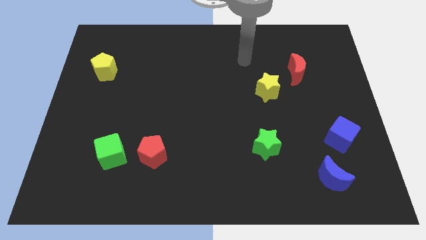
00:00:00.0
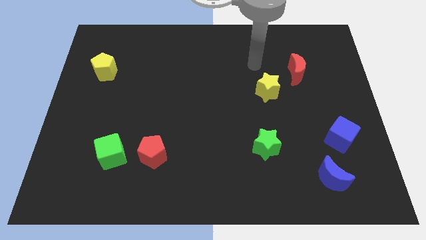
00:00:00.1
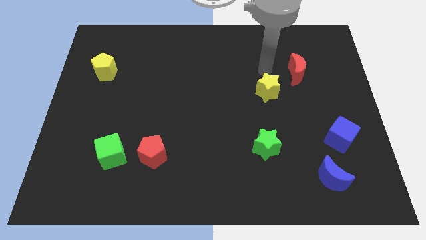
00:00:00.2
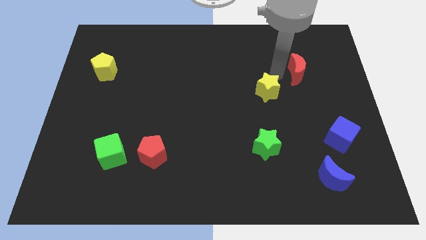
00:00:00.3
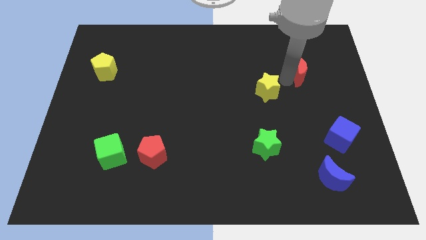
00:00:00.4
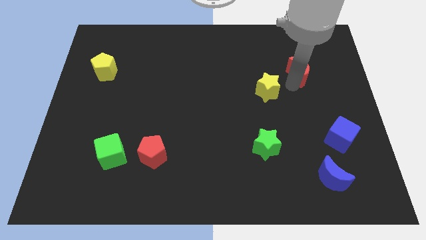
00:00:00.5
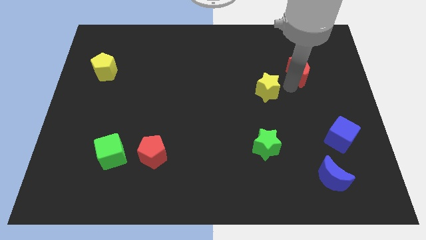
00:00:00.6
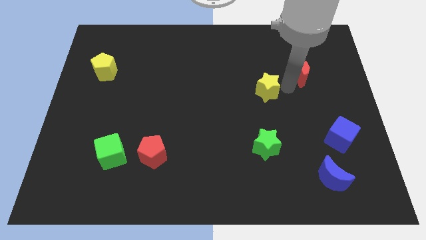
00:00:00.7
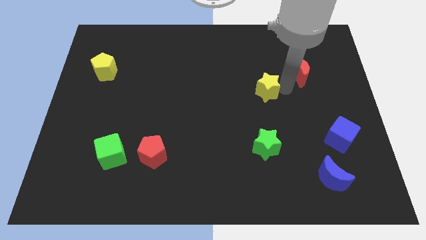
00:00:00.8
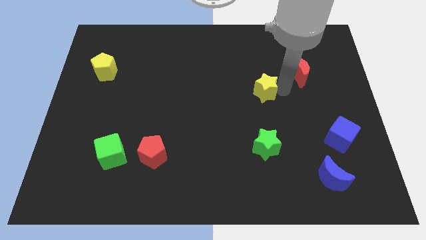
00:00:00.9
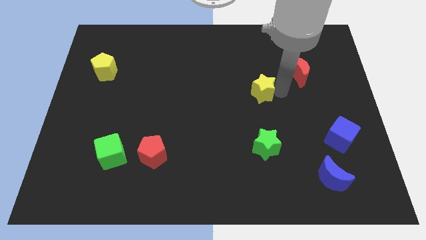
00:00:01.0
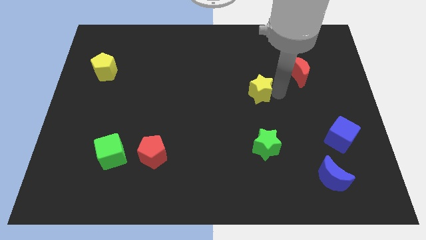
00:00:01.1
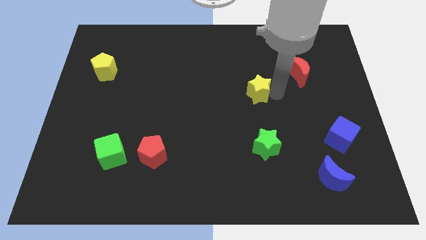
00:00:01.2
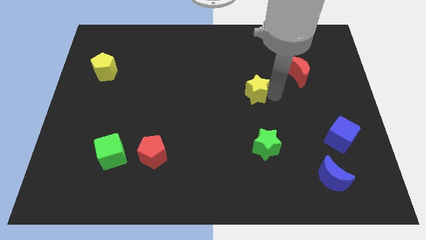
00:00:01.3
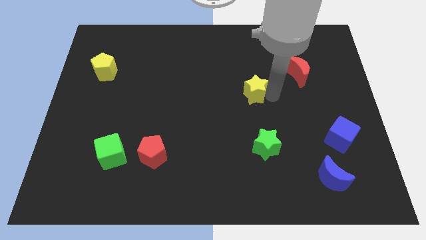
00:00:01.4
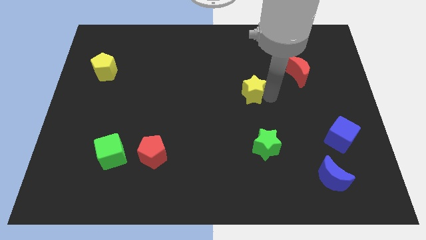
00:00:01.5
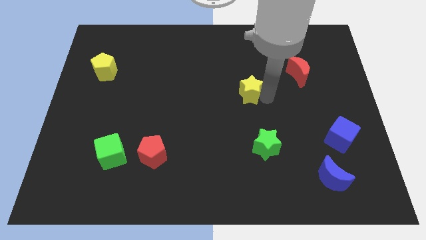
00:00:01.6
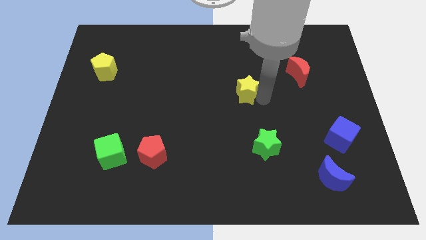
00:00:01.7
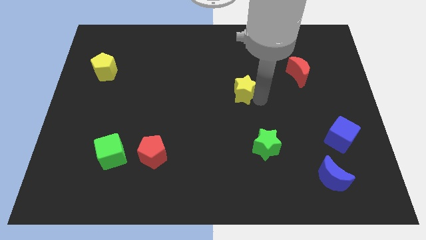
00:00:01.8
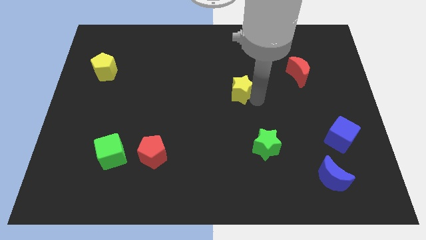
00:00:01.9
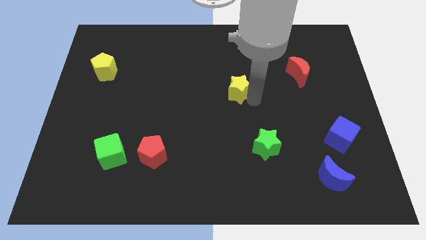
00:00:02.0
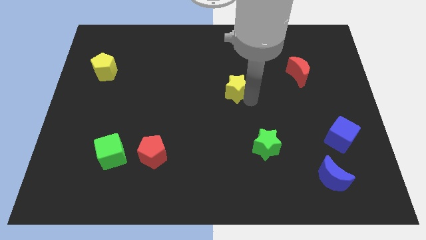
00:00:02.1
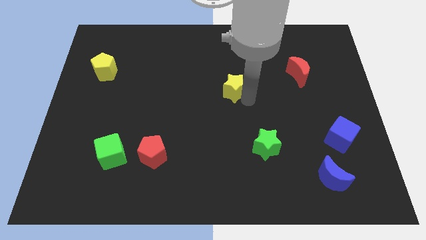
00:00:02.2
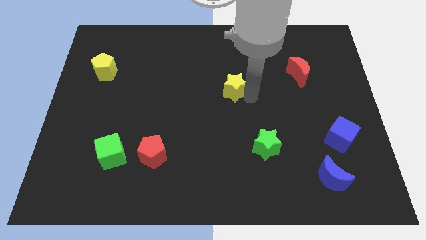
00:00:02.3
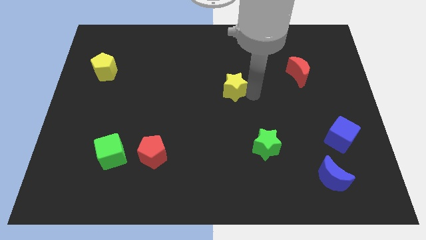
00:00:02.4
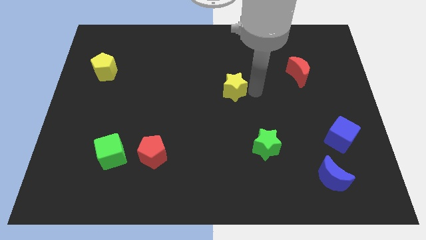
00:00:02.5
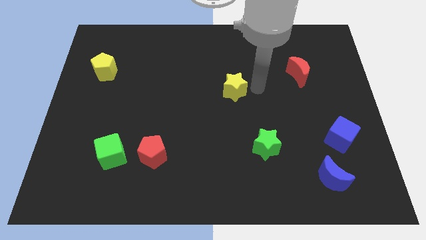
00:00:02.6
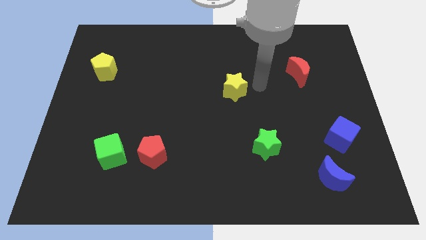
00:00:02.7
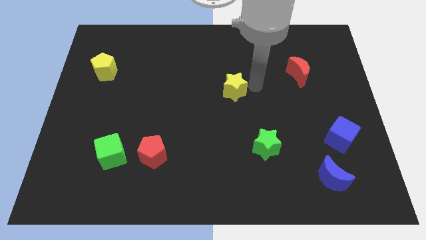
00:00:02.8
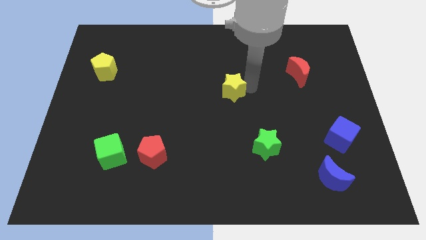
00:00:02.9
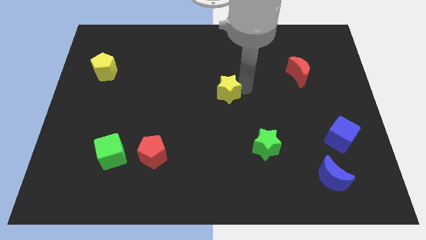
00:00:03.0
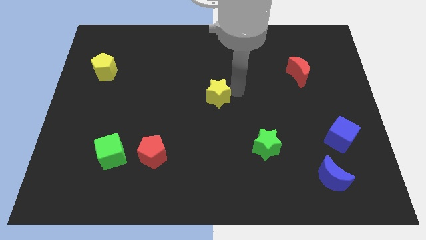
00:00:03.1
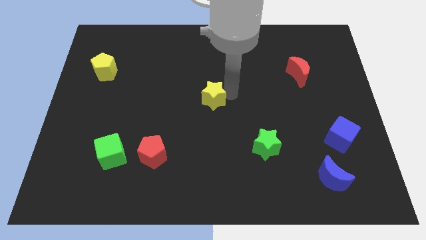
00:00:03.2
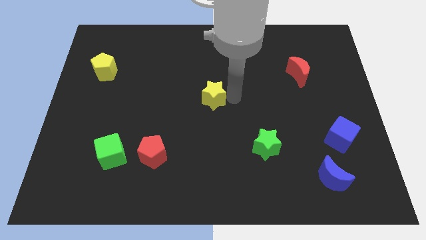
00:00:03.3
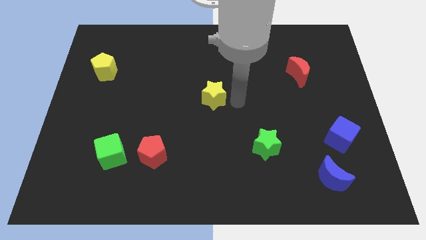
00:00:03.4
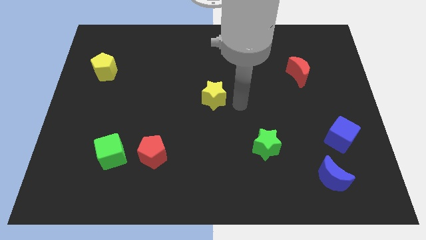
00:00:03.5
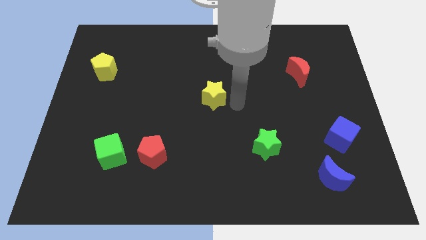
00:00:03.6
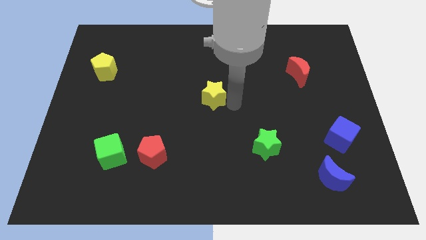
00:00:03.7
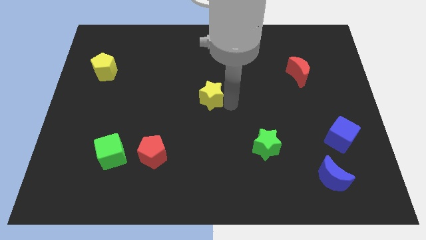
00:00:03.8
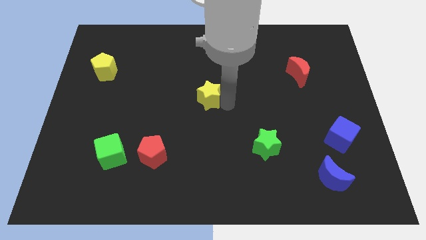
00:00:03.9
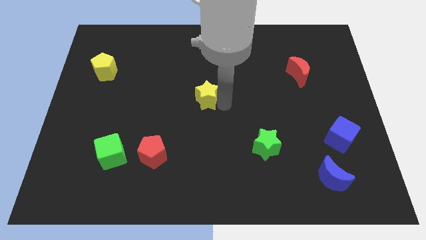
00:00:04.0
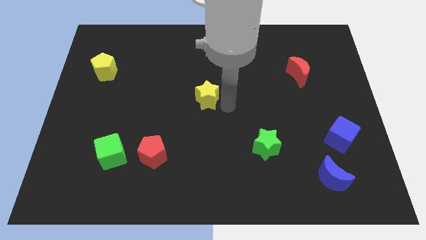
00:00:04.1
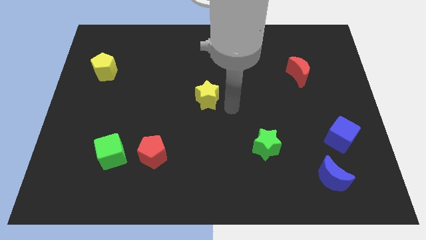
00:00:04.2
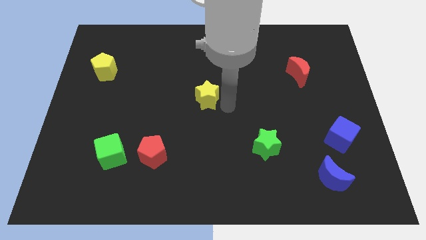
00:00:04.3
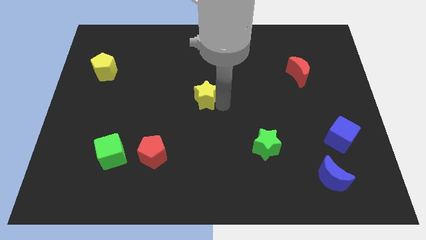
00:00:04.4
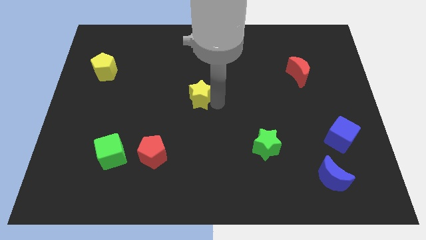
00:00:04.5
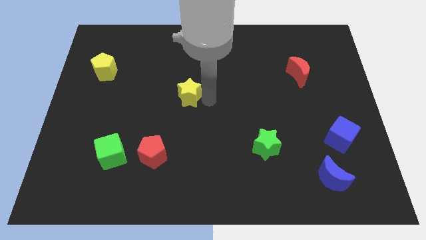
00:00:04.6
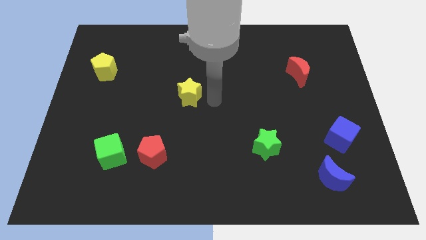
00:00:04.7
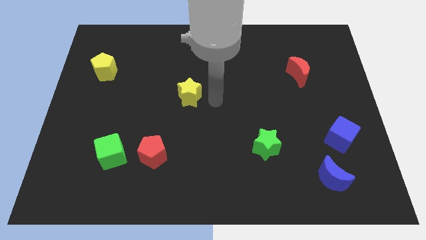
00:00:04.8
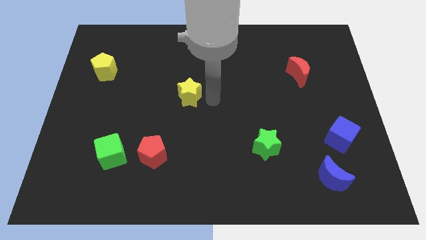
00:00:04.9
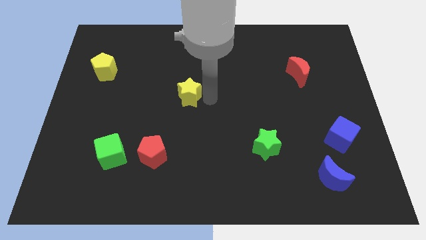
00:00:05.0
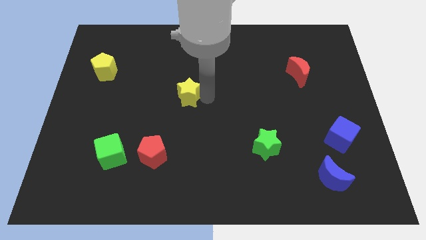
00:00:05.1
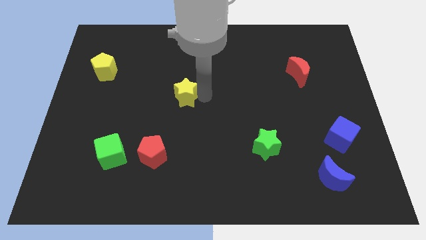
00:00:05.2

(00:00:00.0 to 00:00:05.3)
push the yellow star to the left

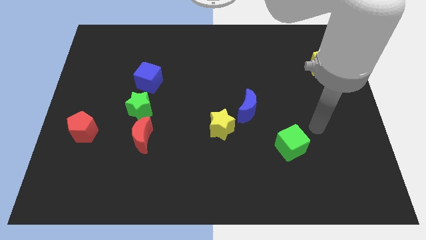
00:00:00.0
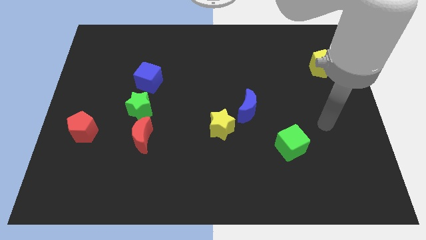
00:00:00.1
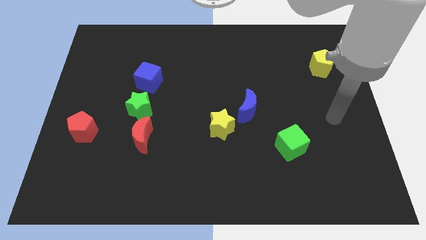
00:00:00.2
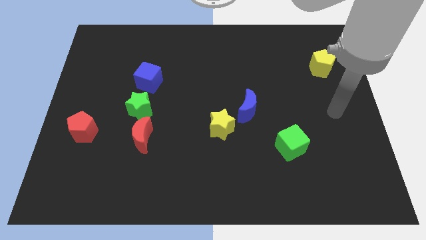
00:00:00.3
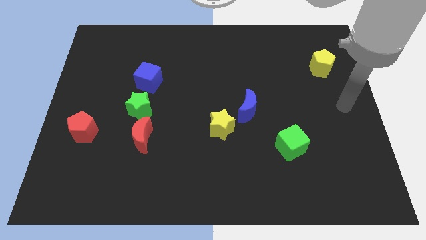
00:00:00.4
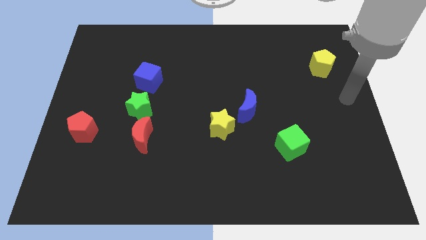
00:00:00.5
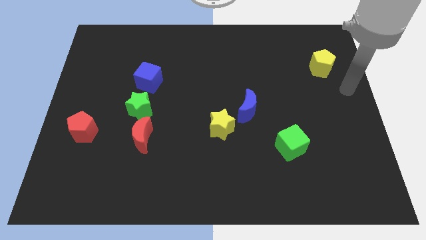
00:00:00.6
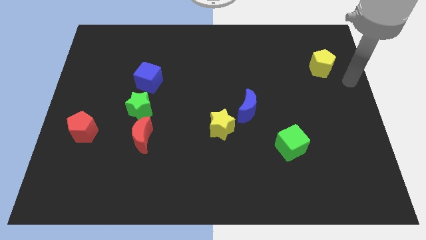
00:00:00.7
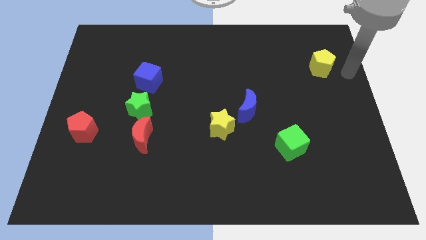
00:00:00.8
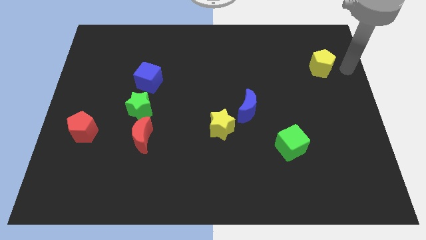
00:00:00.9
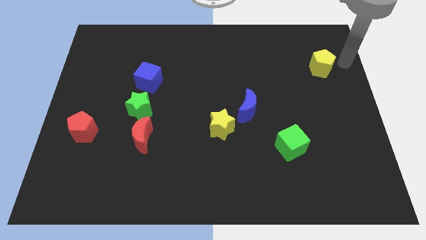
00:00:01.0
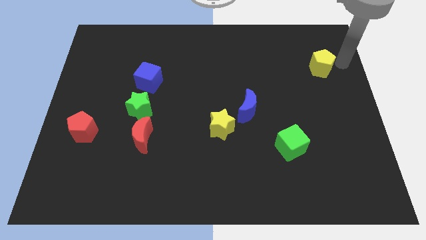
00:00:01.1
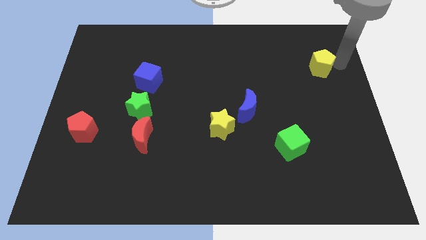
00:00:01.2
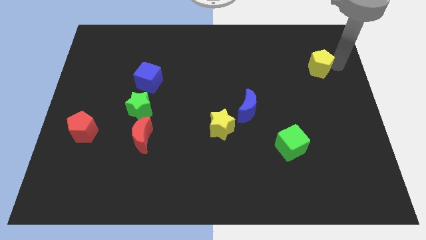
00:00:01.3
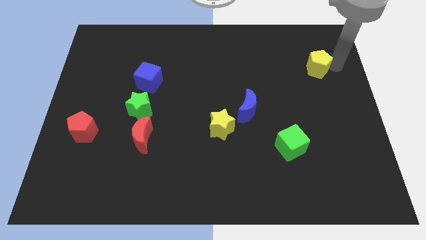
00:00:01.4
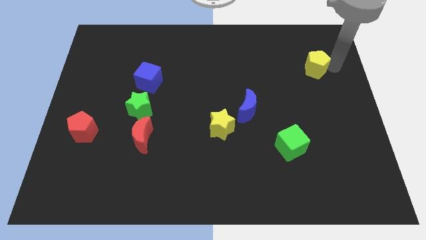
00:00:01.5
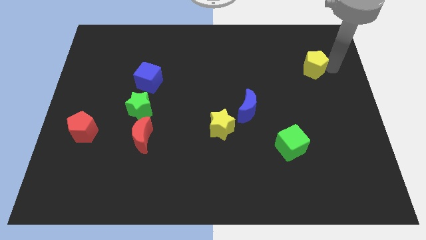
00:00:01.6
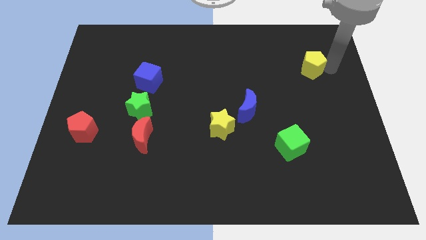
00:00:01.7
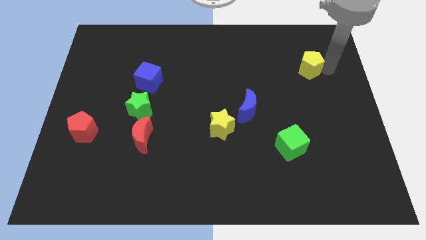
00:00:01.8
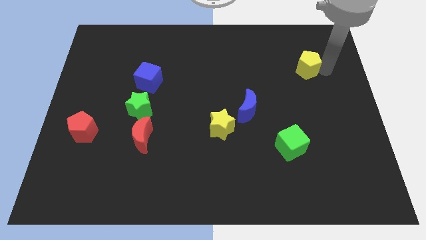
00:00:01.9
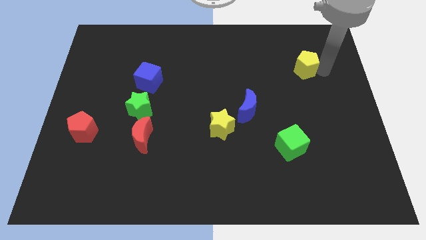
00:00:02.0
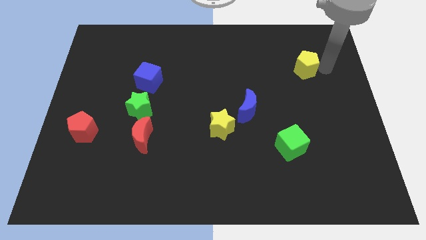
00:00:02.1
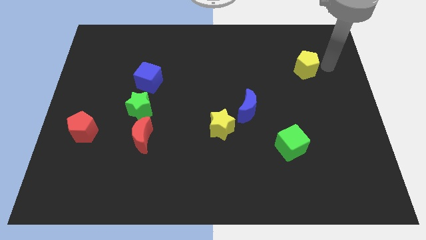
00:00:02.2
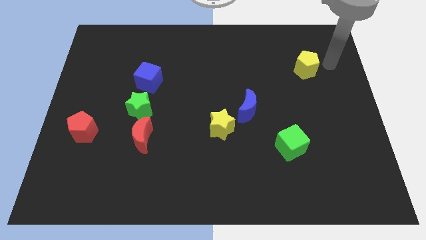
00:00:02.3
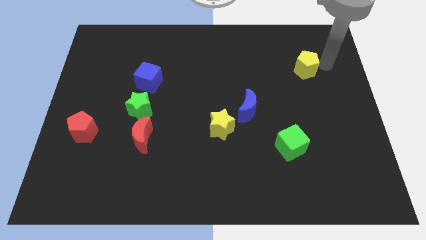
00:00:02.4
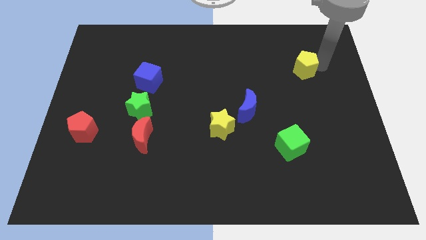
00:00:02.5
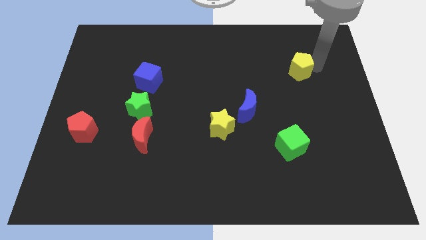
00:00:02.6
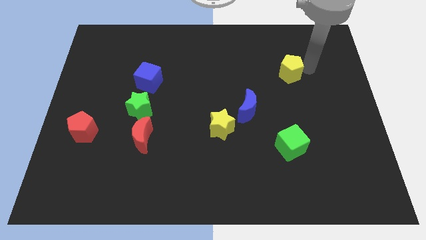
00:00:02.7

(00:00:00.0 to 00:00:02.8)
slide the yellow pentagon a little bit left

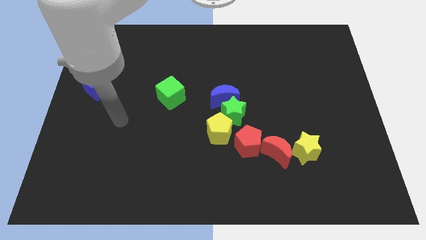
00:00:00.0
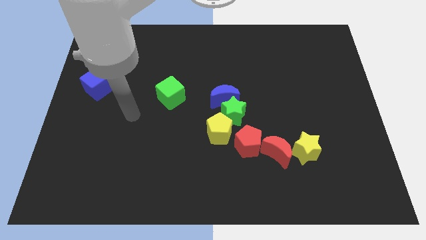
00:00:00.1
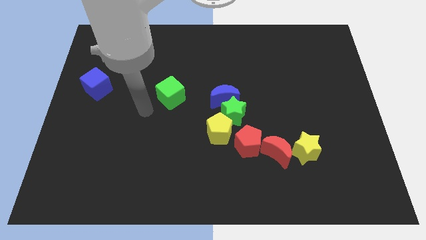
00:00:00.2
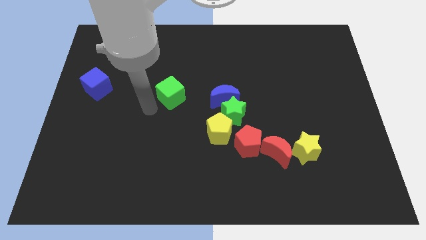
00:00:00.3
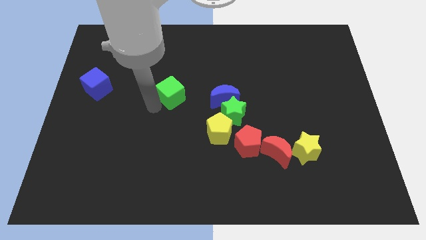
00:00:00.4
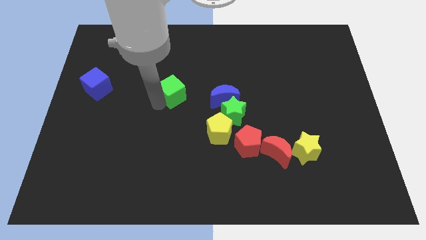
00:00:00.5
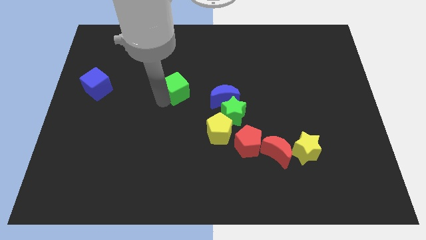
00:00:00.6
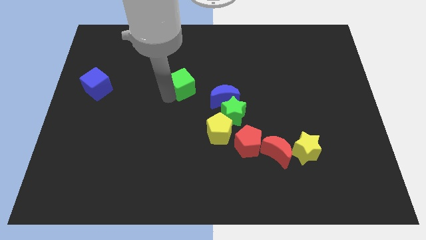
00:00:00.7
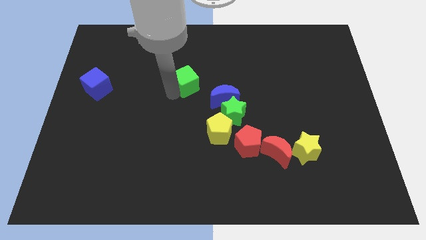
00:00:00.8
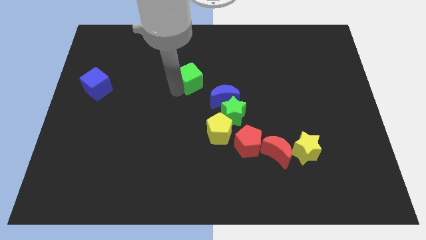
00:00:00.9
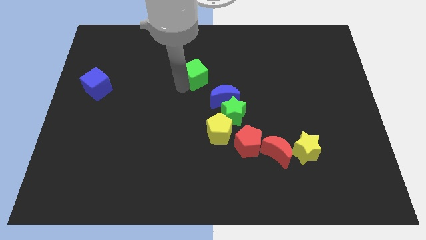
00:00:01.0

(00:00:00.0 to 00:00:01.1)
slightly push the green cube upwards and right
